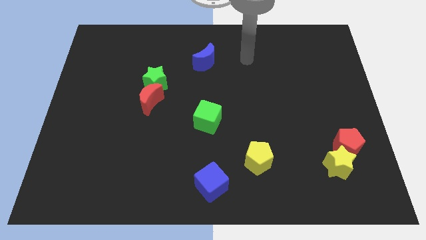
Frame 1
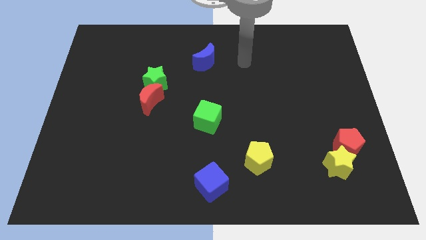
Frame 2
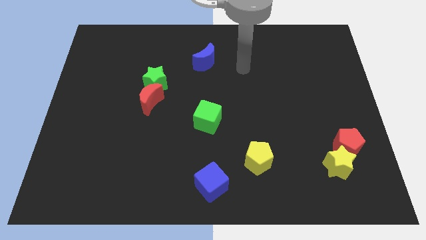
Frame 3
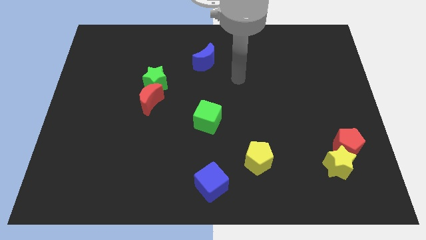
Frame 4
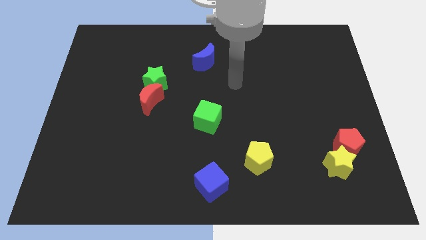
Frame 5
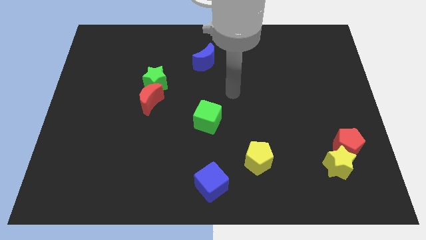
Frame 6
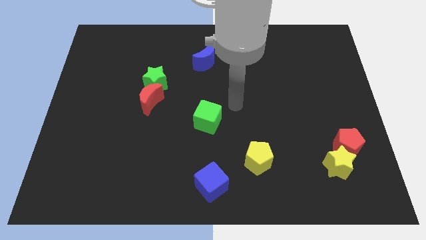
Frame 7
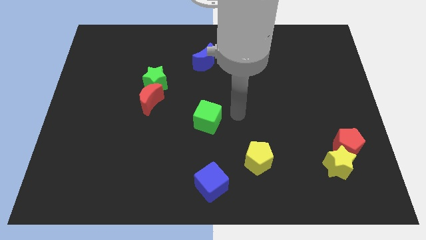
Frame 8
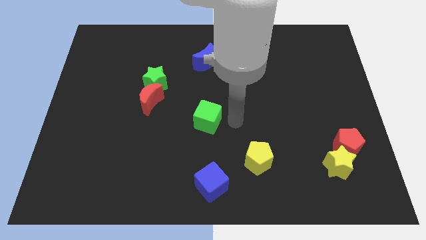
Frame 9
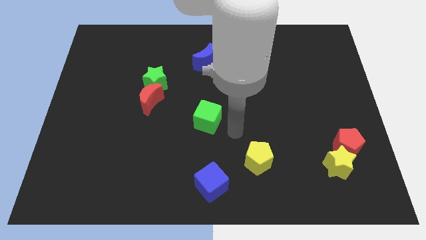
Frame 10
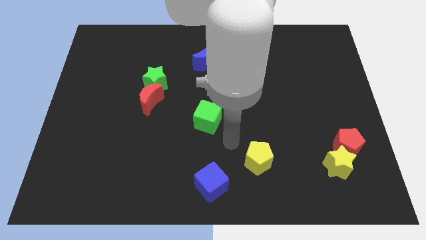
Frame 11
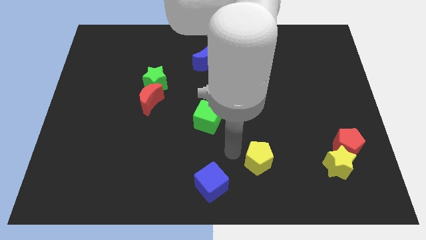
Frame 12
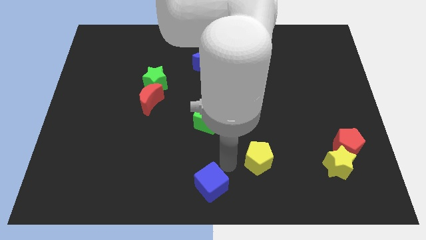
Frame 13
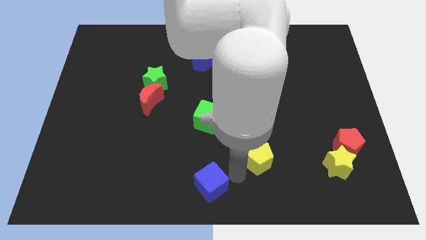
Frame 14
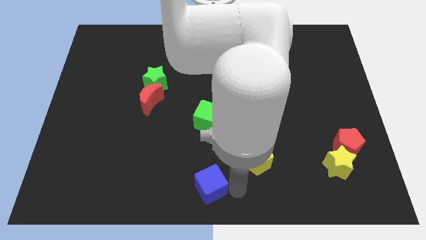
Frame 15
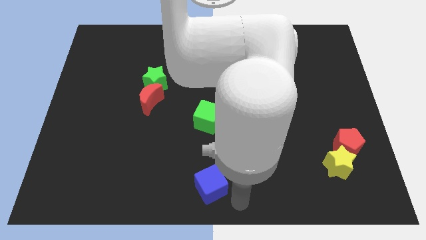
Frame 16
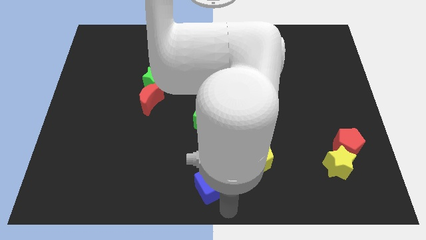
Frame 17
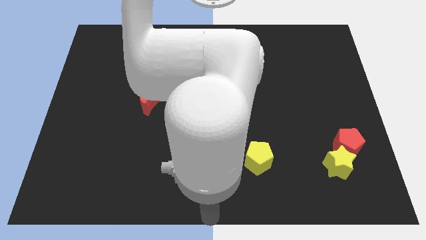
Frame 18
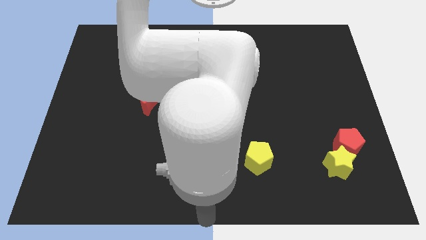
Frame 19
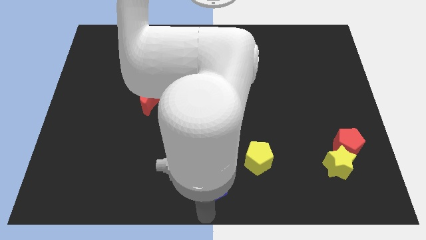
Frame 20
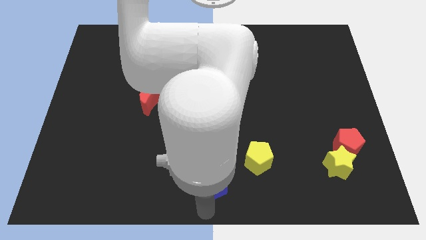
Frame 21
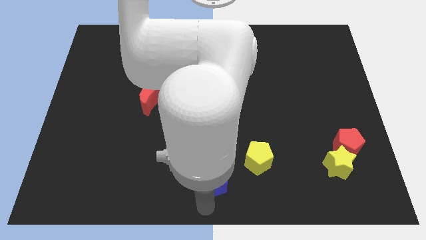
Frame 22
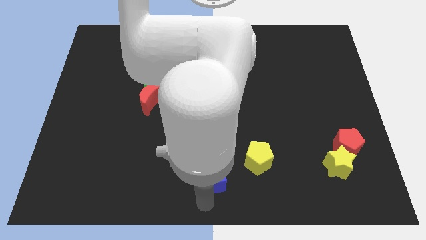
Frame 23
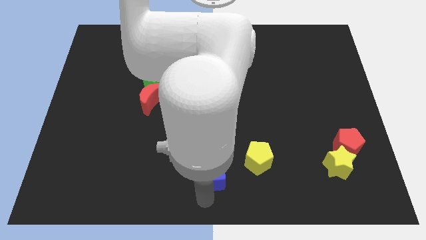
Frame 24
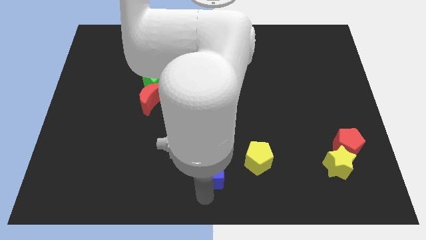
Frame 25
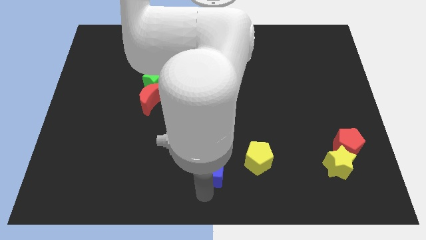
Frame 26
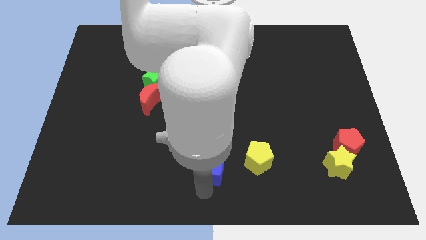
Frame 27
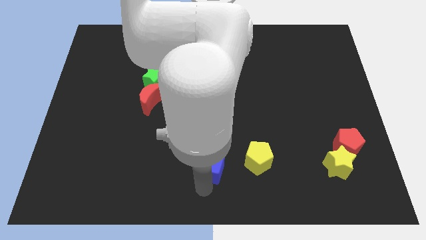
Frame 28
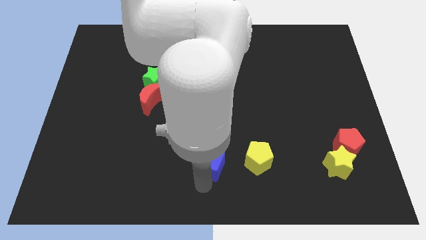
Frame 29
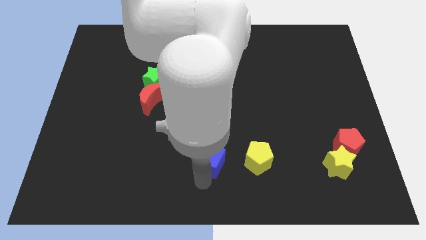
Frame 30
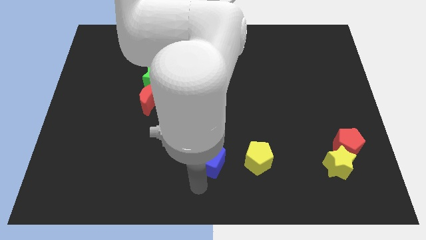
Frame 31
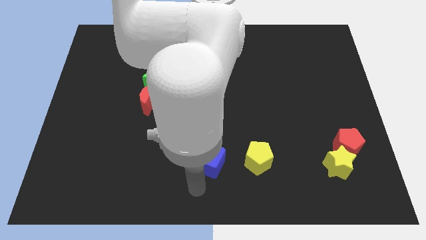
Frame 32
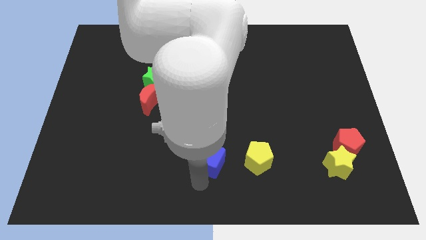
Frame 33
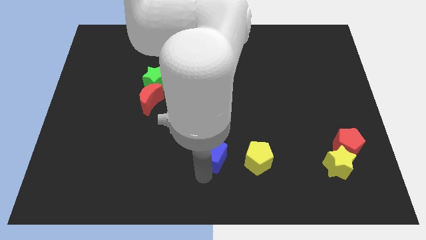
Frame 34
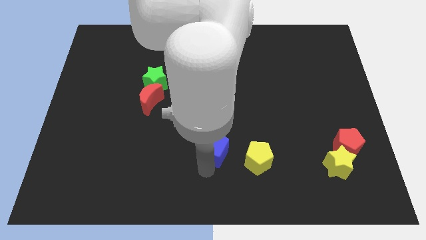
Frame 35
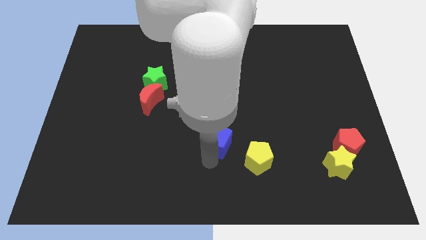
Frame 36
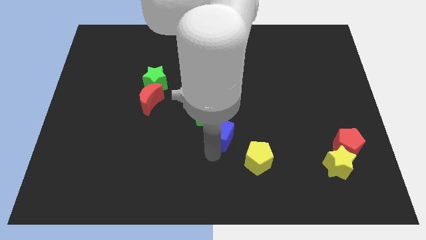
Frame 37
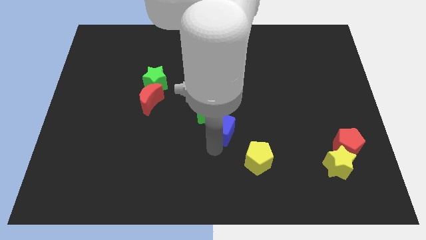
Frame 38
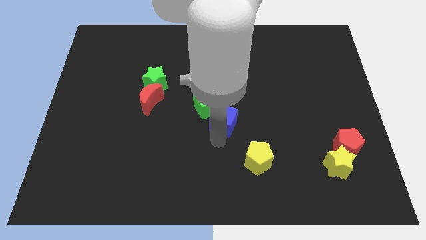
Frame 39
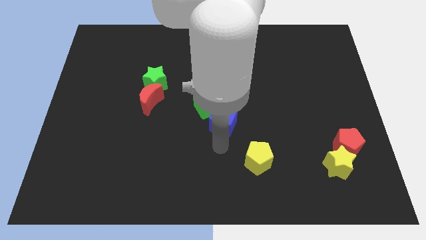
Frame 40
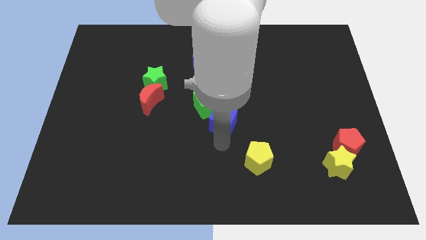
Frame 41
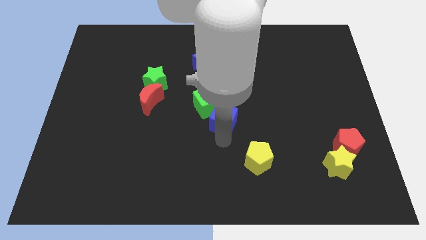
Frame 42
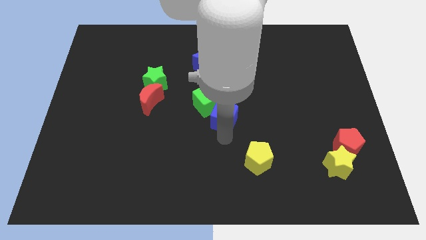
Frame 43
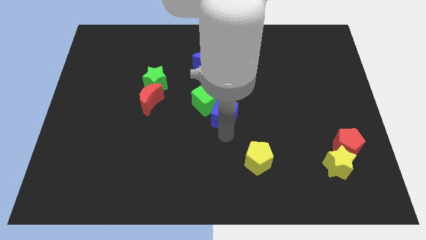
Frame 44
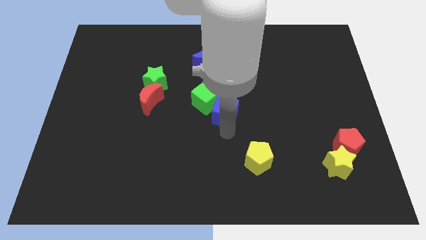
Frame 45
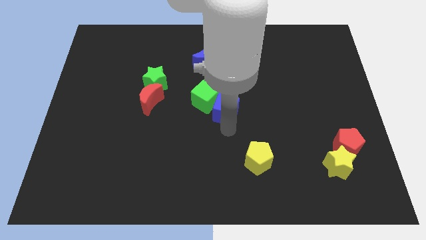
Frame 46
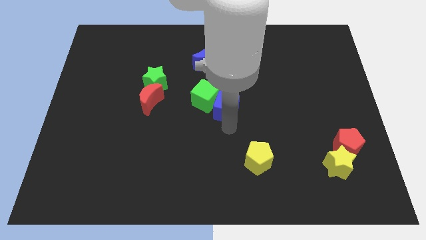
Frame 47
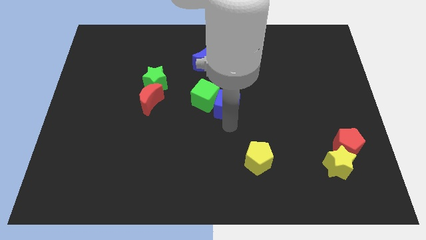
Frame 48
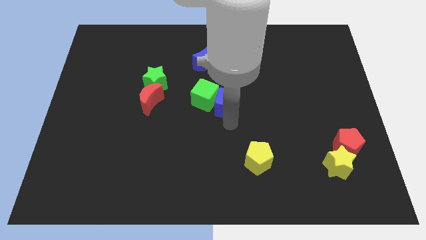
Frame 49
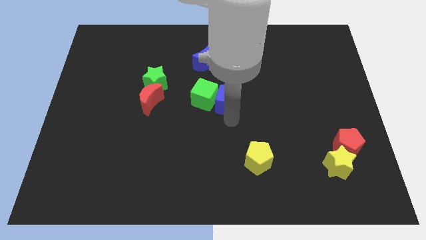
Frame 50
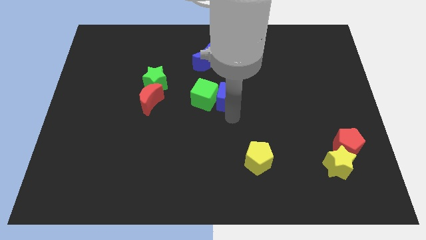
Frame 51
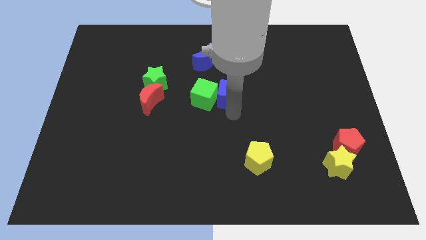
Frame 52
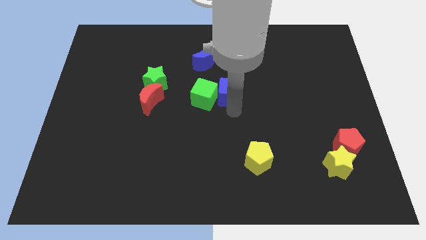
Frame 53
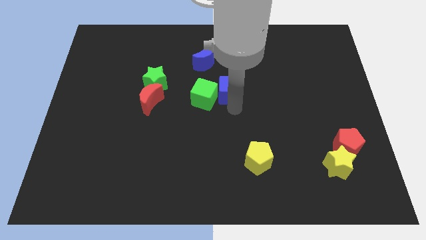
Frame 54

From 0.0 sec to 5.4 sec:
put the blue cube to the bottom right side of the blue moon

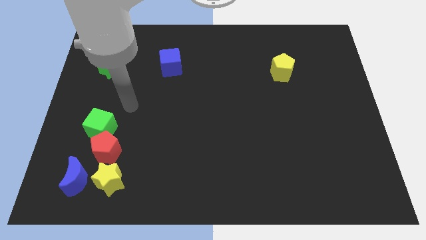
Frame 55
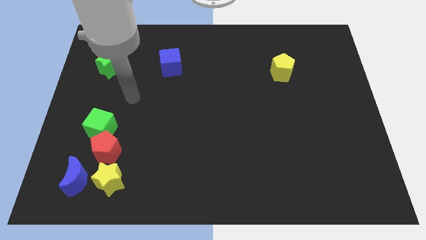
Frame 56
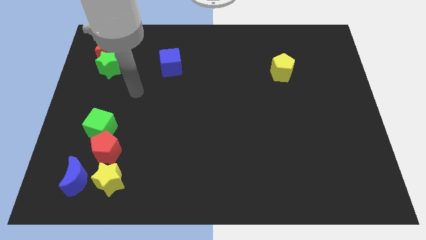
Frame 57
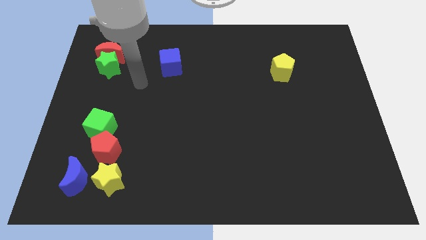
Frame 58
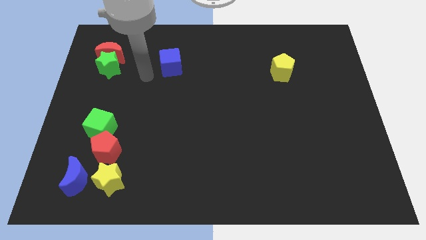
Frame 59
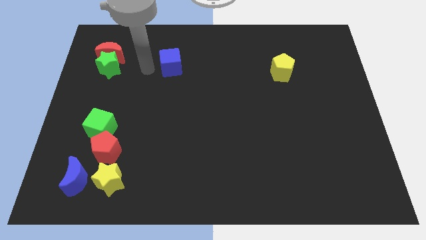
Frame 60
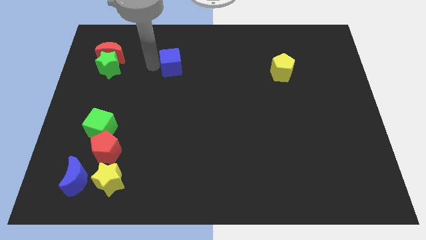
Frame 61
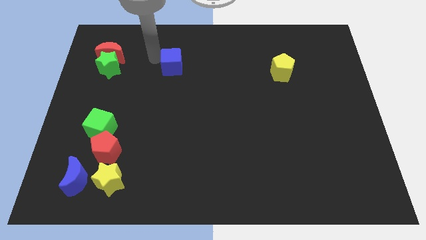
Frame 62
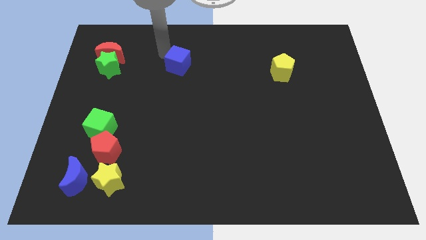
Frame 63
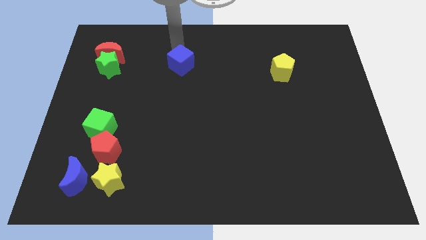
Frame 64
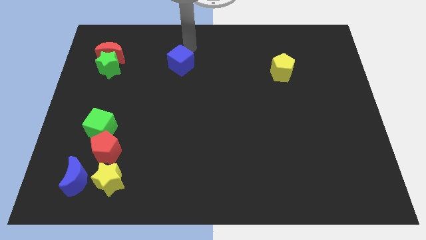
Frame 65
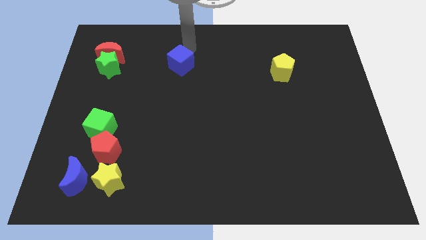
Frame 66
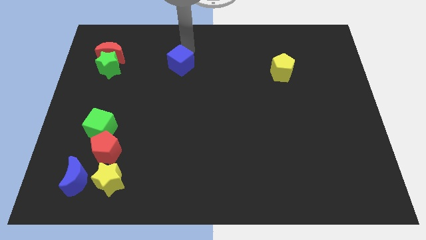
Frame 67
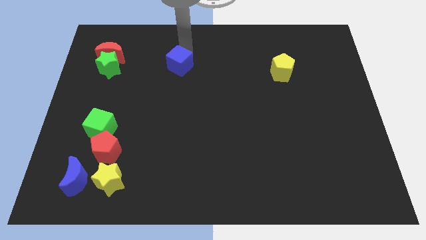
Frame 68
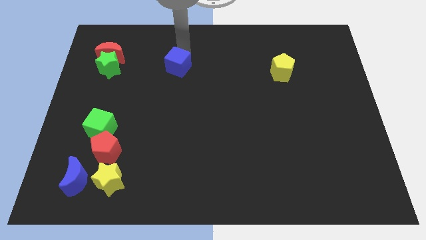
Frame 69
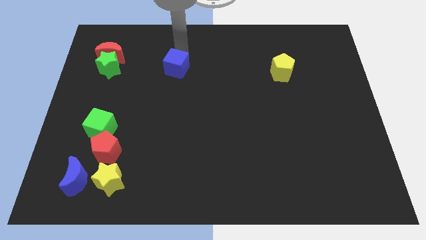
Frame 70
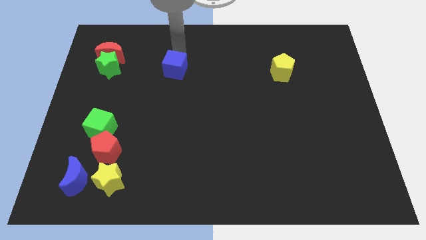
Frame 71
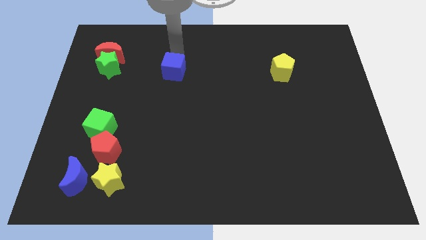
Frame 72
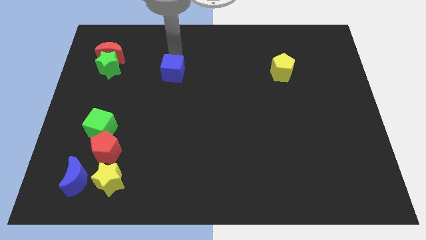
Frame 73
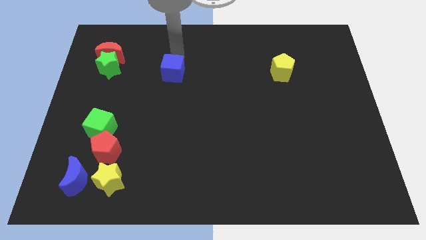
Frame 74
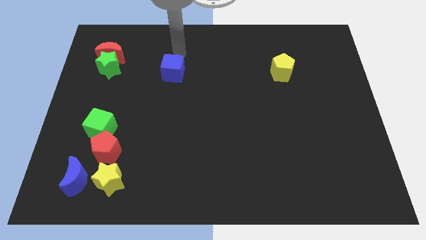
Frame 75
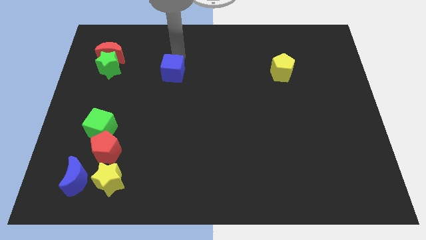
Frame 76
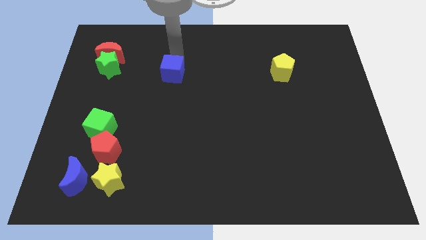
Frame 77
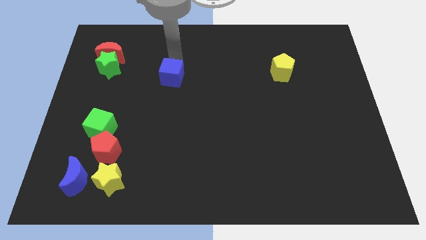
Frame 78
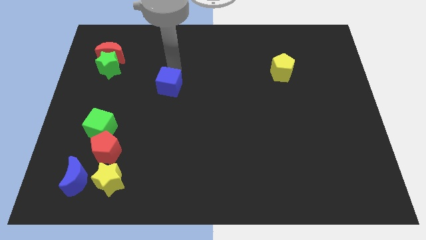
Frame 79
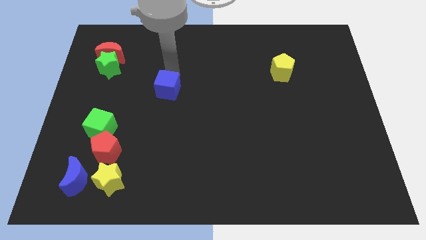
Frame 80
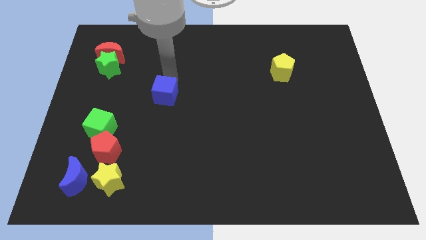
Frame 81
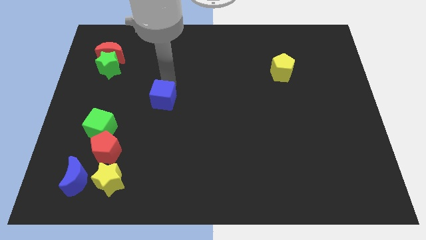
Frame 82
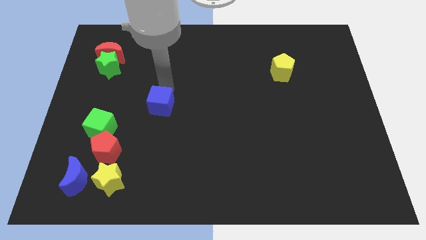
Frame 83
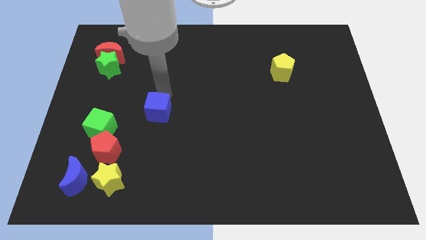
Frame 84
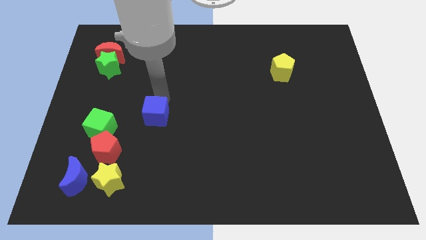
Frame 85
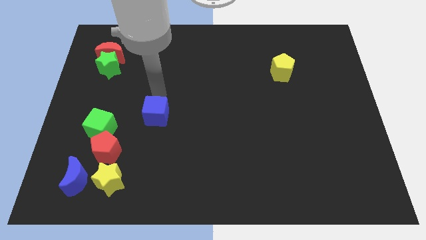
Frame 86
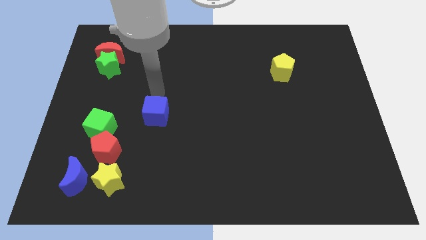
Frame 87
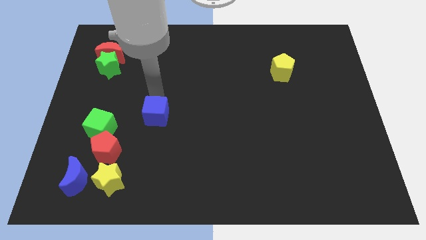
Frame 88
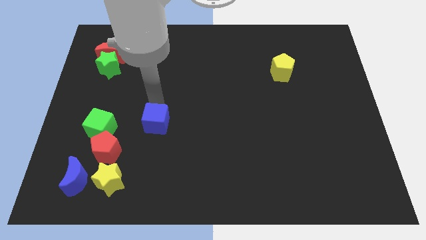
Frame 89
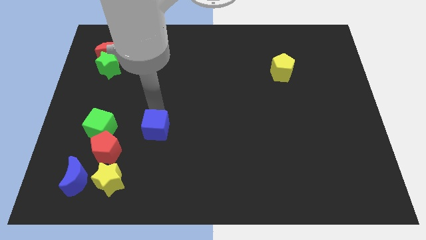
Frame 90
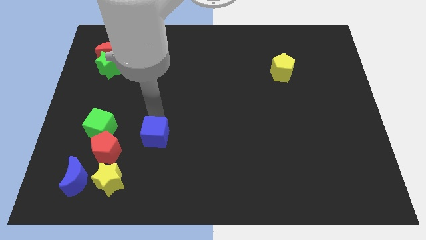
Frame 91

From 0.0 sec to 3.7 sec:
put the blue cube right of the red pentagon
